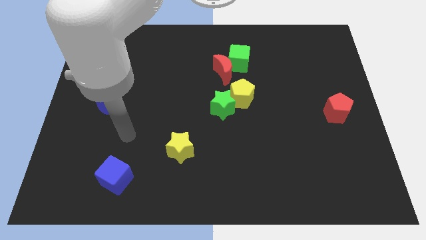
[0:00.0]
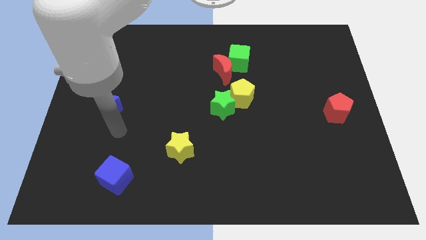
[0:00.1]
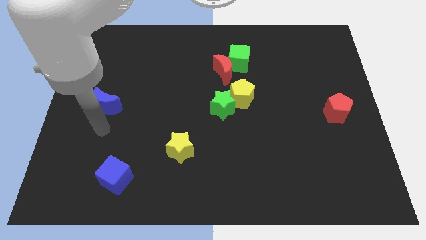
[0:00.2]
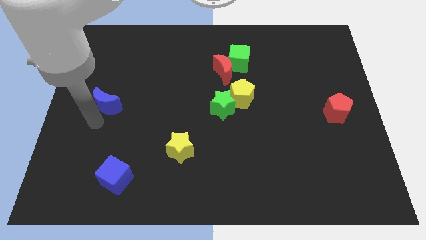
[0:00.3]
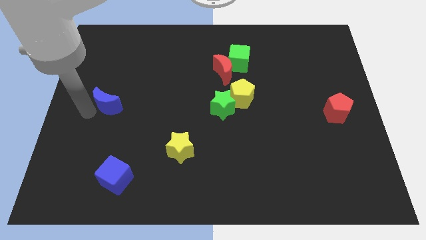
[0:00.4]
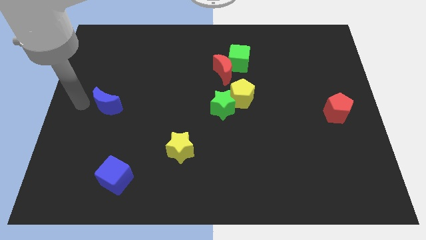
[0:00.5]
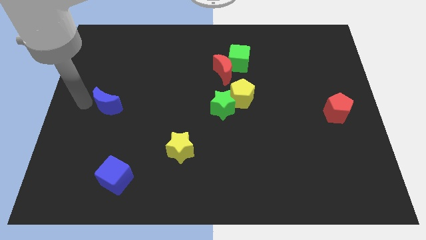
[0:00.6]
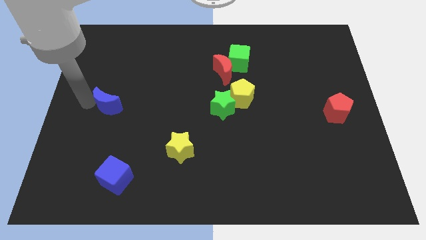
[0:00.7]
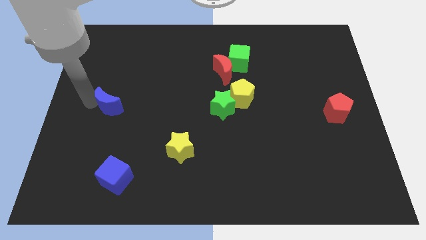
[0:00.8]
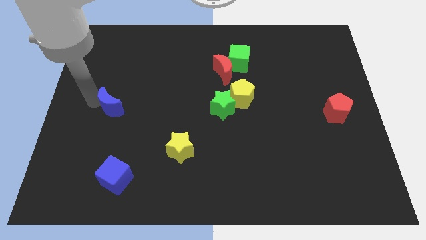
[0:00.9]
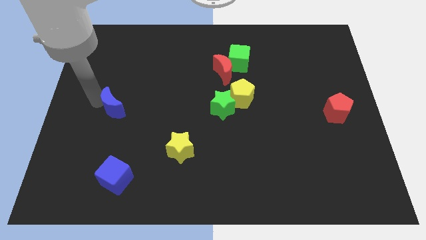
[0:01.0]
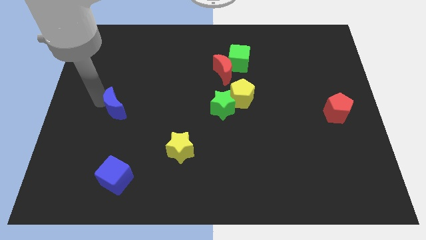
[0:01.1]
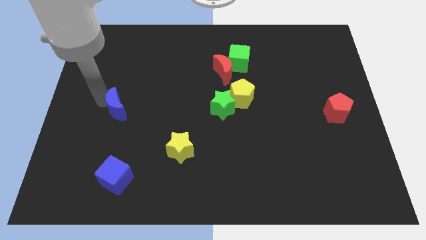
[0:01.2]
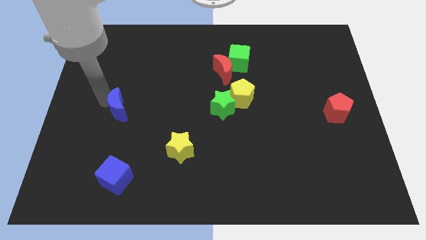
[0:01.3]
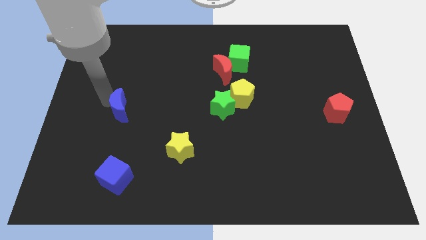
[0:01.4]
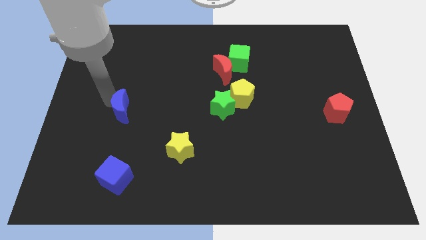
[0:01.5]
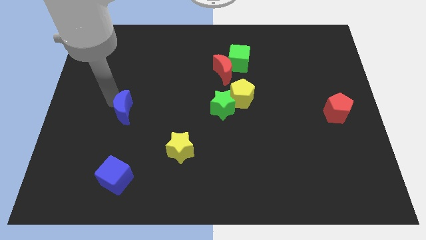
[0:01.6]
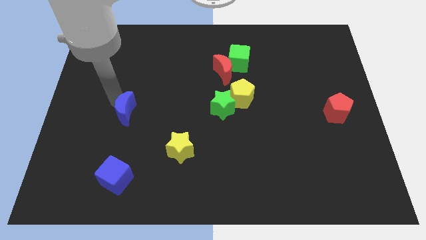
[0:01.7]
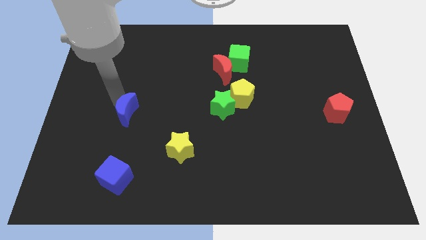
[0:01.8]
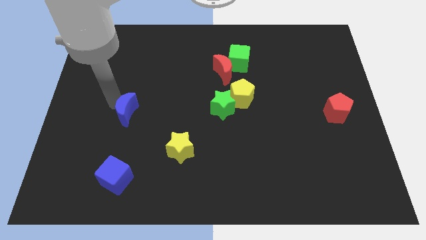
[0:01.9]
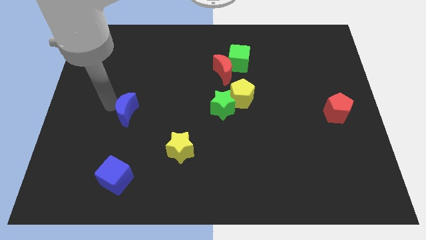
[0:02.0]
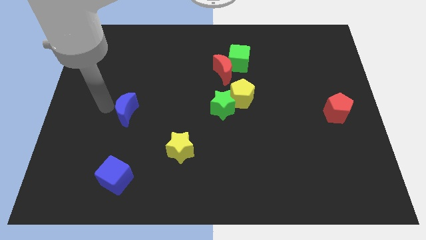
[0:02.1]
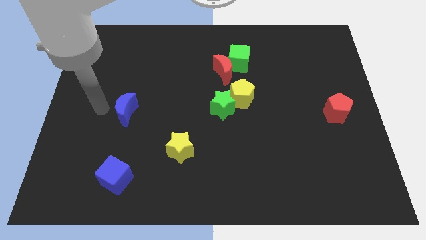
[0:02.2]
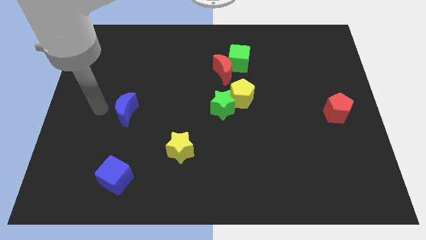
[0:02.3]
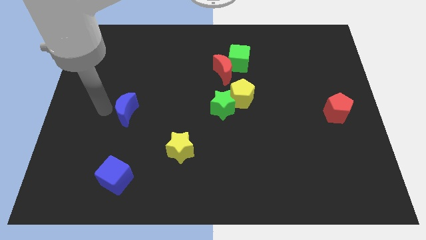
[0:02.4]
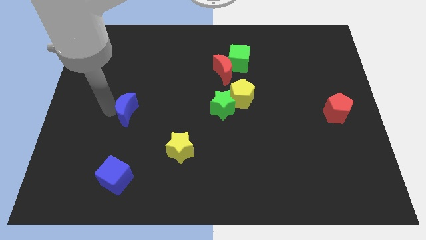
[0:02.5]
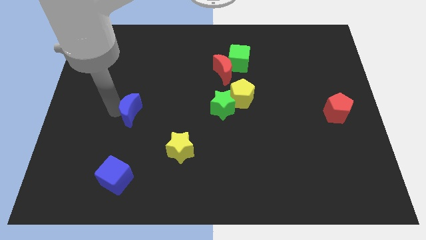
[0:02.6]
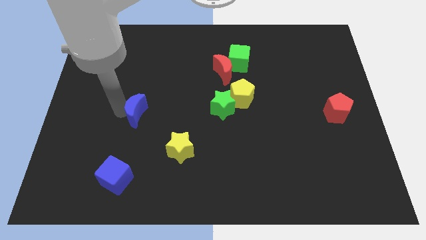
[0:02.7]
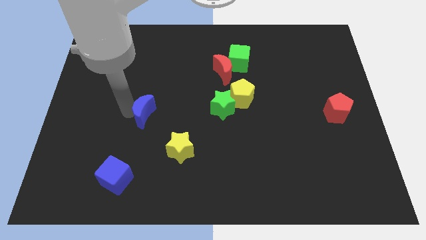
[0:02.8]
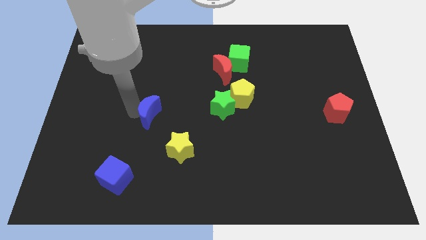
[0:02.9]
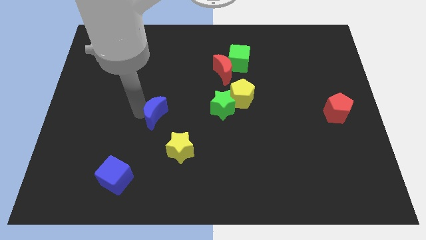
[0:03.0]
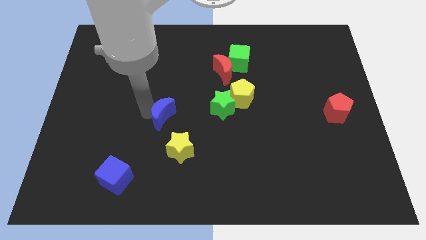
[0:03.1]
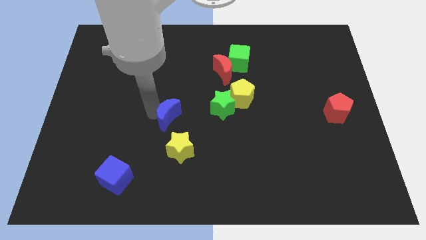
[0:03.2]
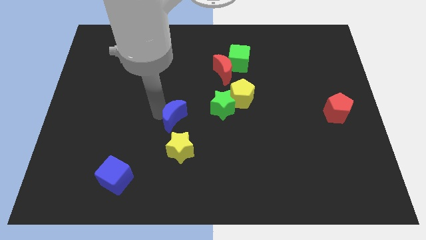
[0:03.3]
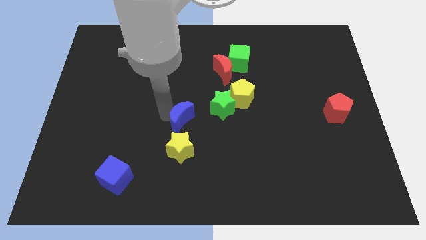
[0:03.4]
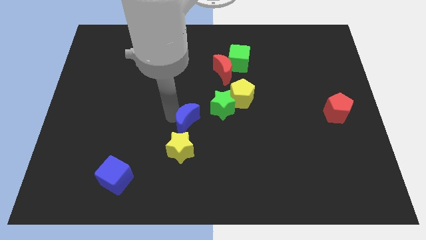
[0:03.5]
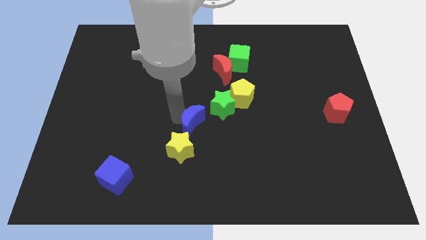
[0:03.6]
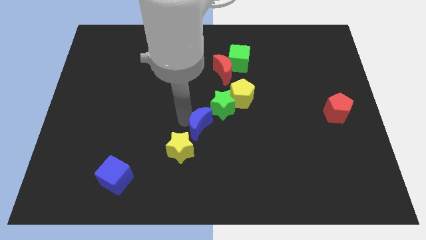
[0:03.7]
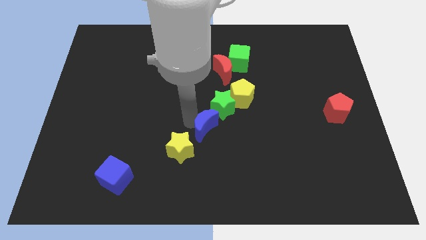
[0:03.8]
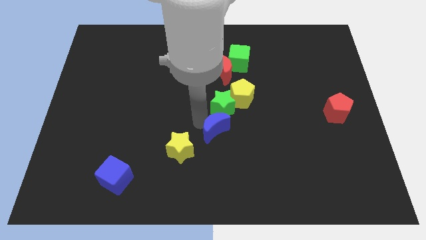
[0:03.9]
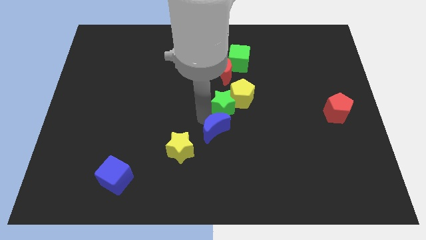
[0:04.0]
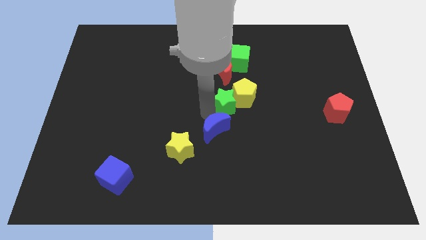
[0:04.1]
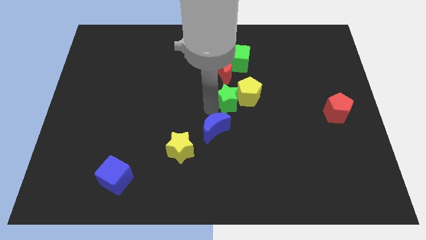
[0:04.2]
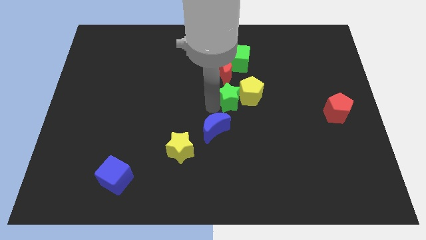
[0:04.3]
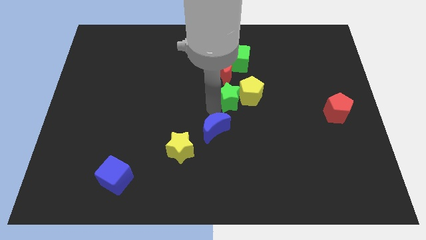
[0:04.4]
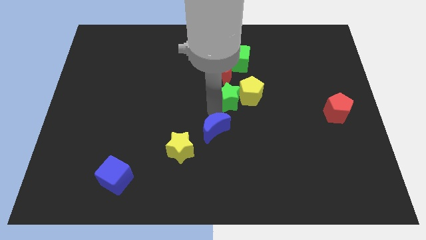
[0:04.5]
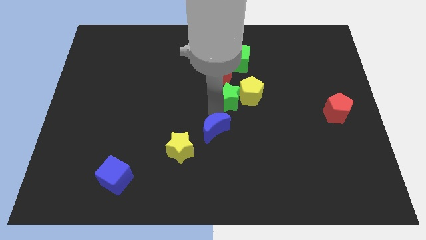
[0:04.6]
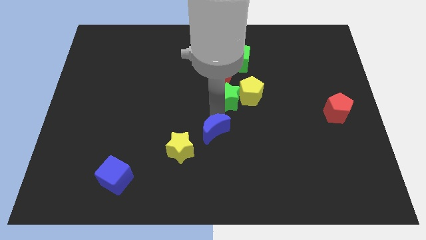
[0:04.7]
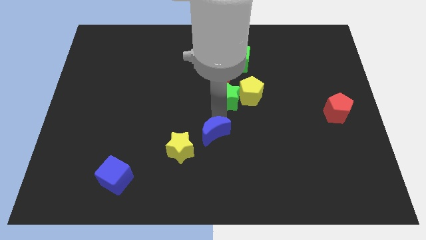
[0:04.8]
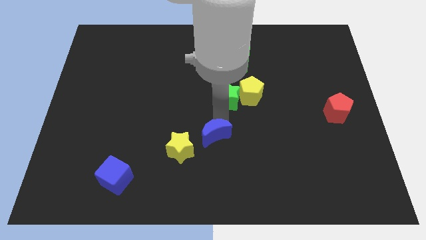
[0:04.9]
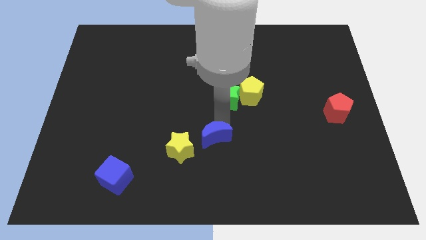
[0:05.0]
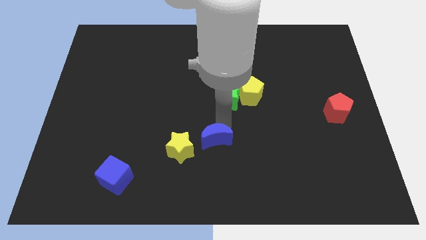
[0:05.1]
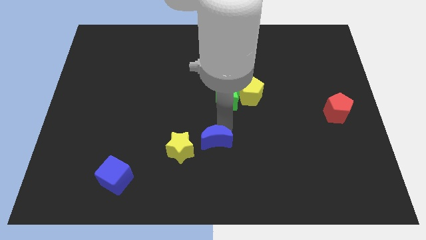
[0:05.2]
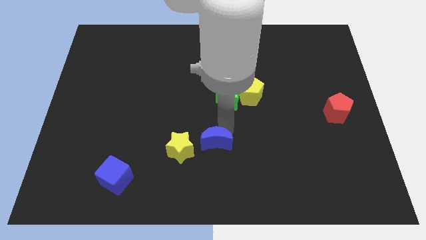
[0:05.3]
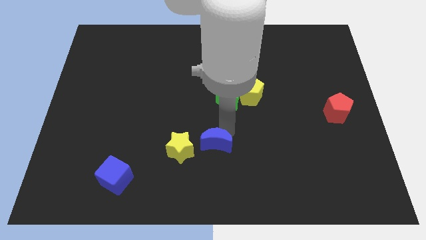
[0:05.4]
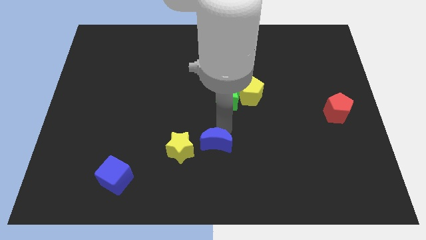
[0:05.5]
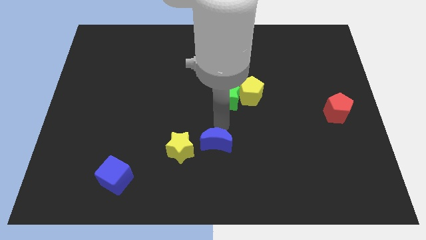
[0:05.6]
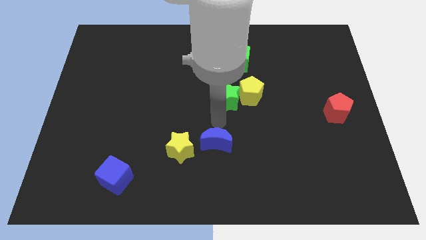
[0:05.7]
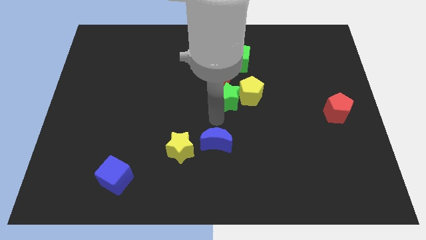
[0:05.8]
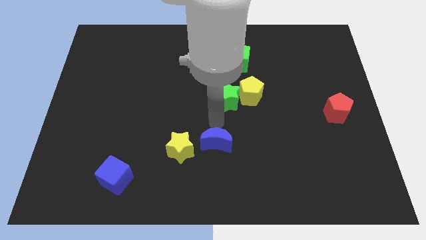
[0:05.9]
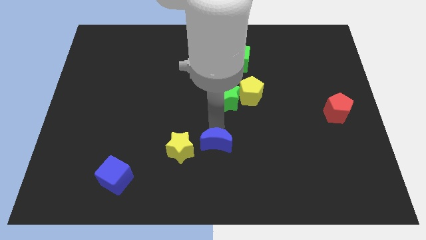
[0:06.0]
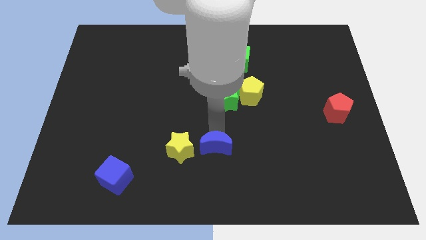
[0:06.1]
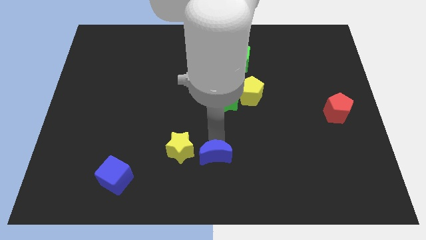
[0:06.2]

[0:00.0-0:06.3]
push the blue moon to the bottom
